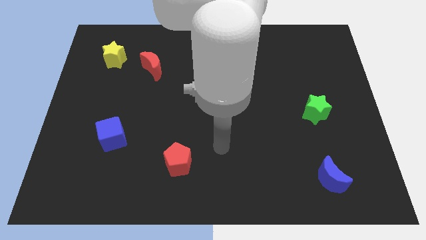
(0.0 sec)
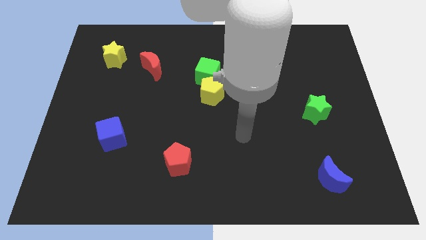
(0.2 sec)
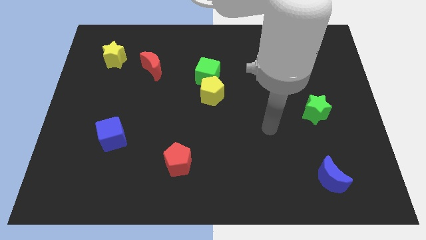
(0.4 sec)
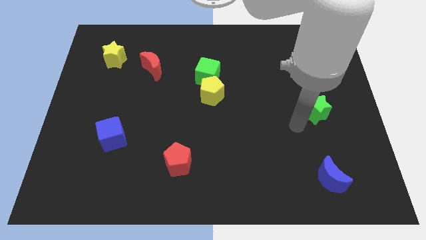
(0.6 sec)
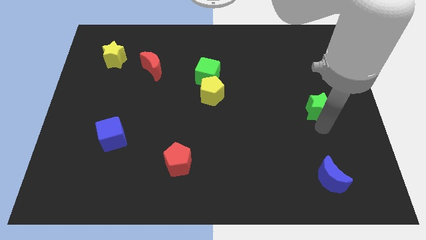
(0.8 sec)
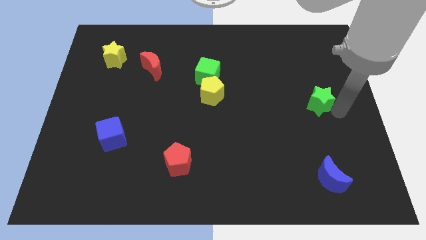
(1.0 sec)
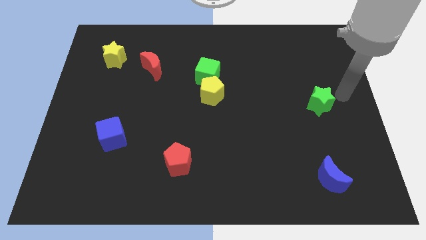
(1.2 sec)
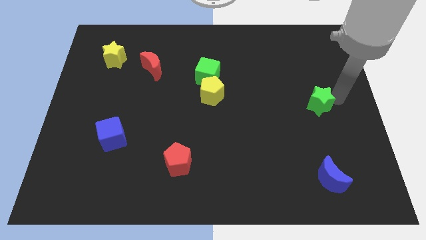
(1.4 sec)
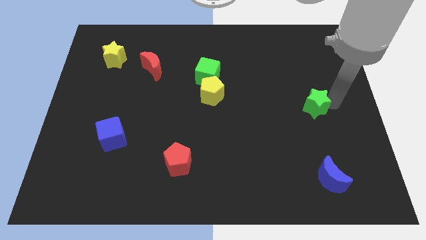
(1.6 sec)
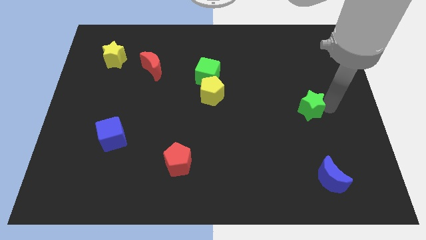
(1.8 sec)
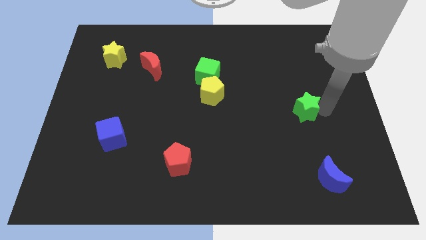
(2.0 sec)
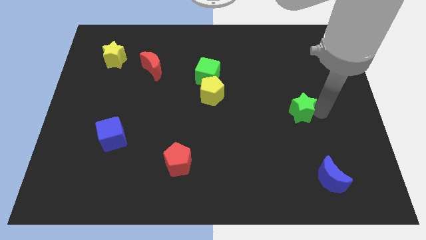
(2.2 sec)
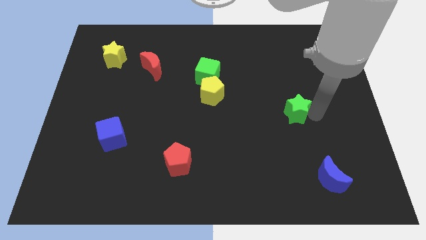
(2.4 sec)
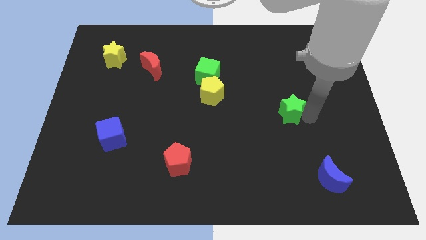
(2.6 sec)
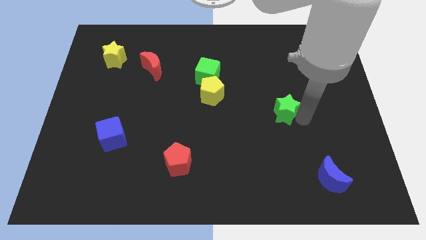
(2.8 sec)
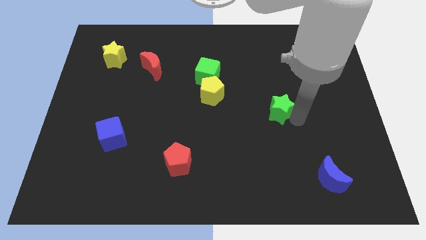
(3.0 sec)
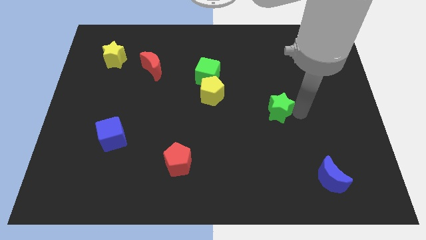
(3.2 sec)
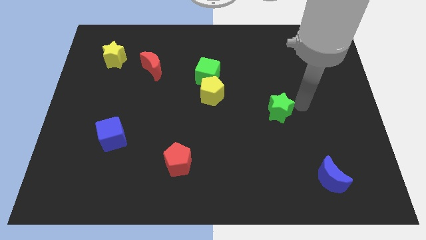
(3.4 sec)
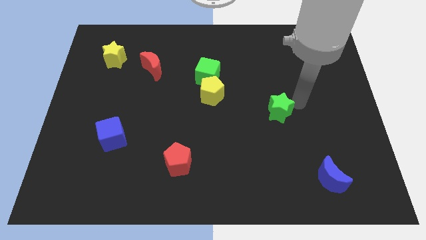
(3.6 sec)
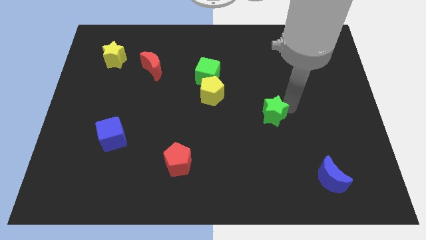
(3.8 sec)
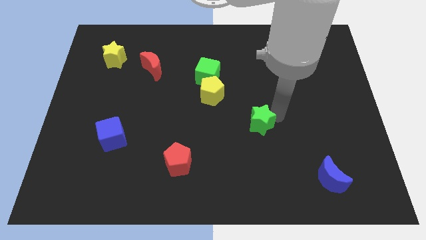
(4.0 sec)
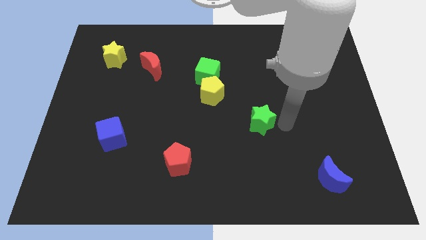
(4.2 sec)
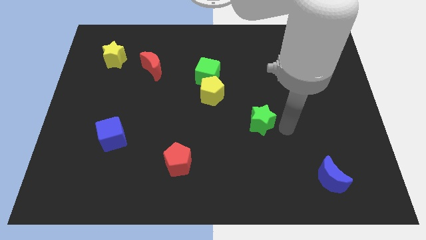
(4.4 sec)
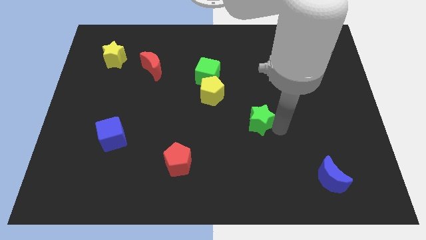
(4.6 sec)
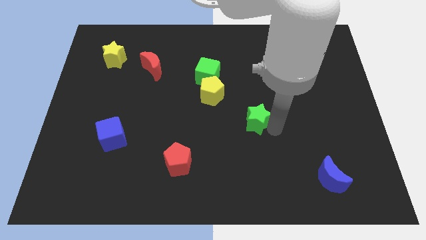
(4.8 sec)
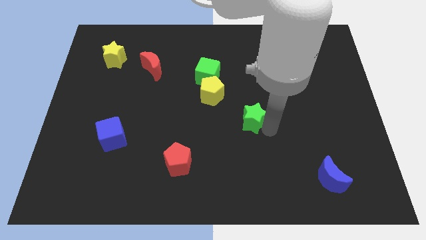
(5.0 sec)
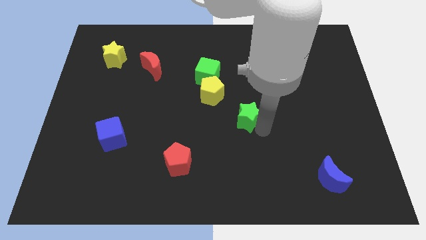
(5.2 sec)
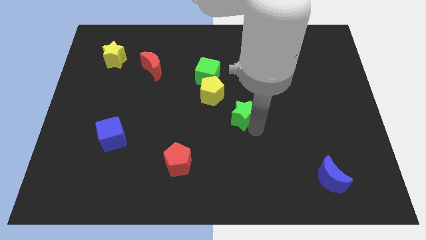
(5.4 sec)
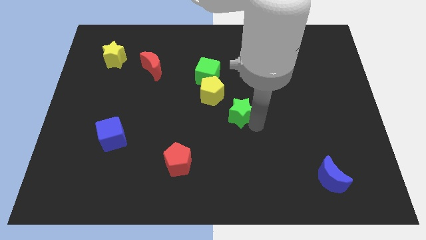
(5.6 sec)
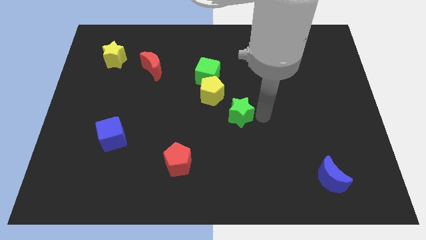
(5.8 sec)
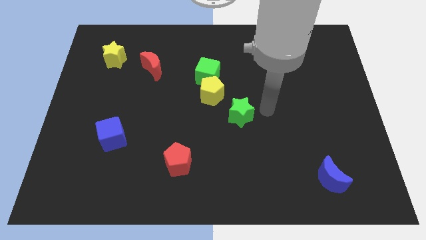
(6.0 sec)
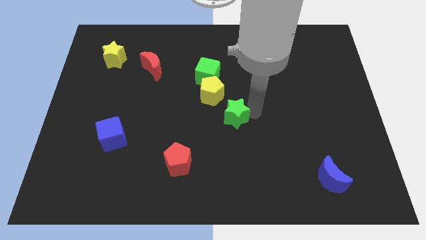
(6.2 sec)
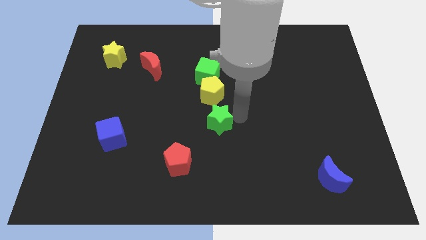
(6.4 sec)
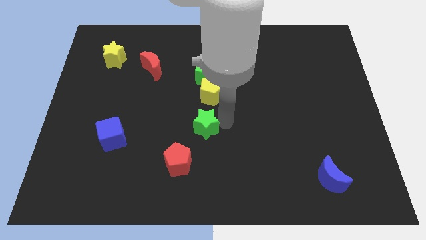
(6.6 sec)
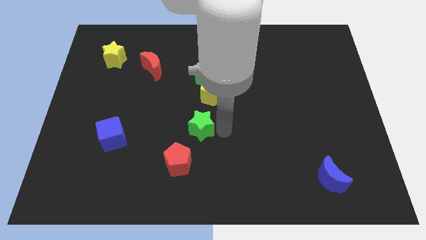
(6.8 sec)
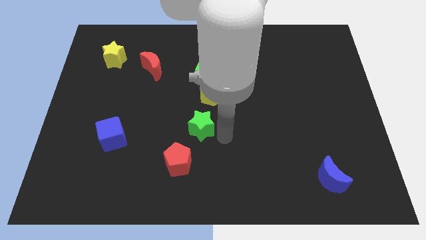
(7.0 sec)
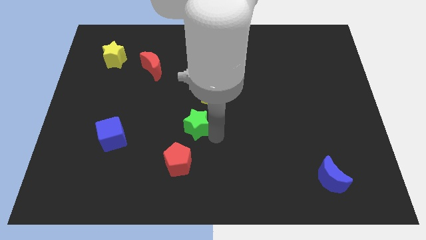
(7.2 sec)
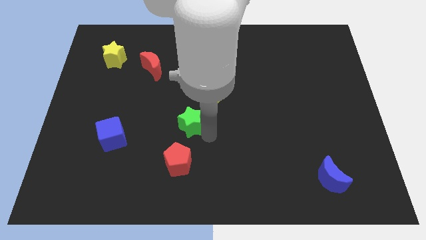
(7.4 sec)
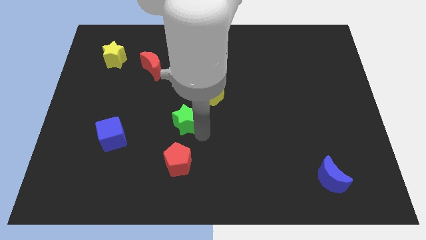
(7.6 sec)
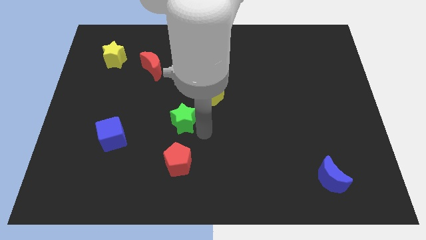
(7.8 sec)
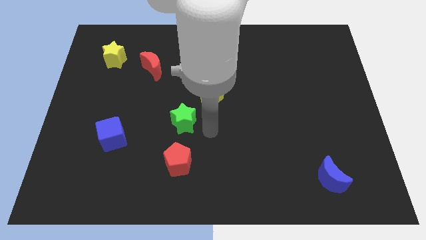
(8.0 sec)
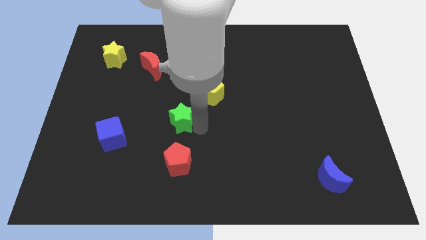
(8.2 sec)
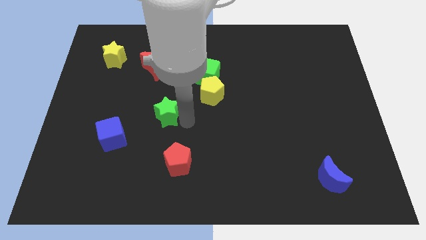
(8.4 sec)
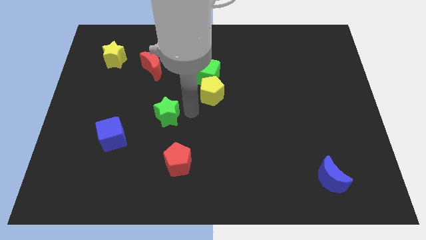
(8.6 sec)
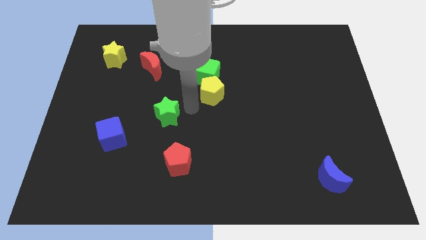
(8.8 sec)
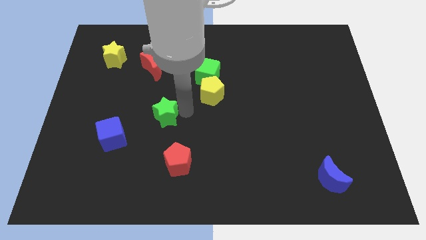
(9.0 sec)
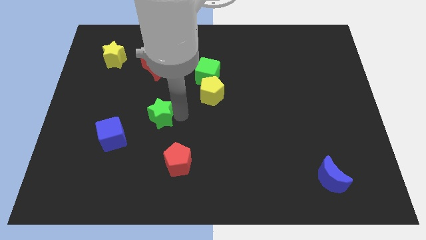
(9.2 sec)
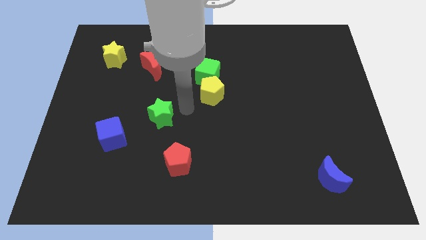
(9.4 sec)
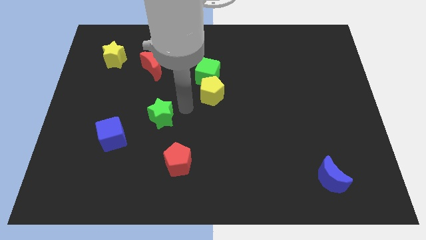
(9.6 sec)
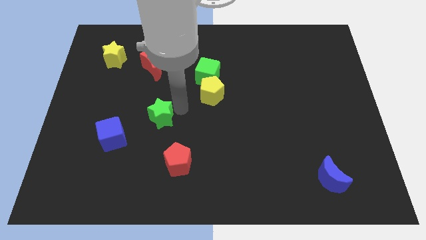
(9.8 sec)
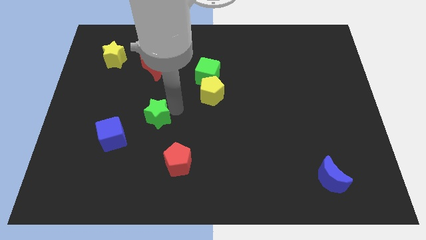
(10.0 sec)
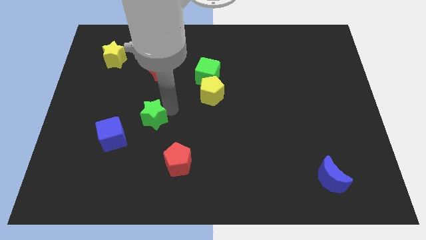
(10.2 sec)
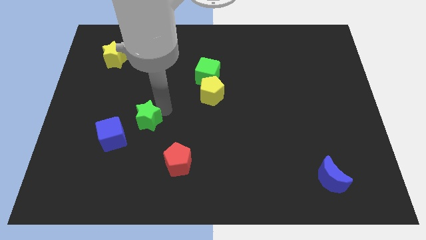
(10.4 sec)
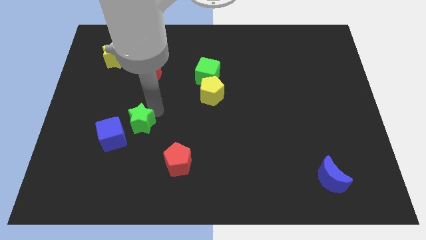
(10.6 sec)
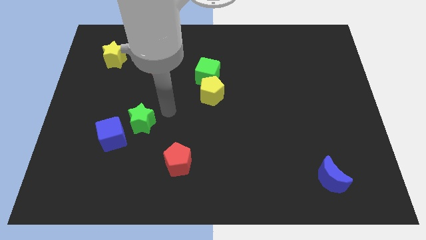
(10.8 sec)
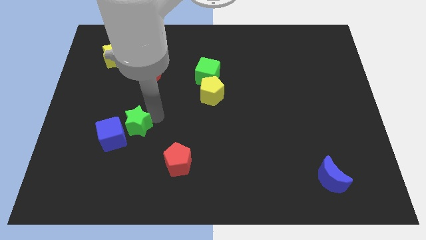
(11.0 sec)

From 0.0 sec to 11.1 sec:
put the green star next to the blue cube
